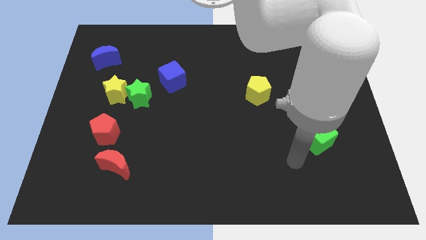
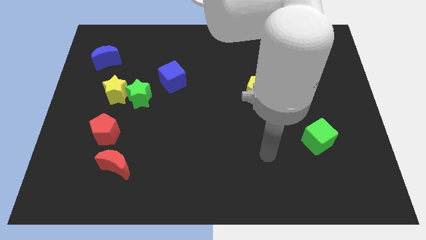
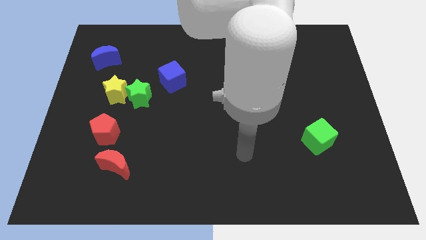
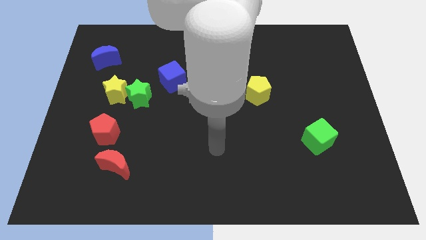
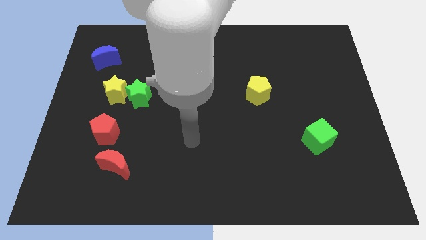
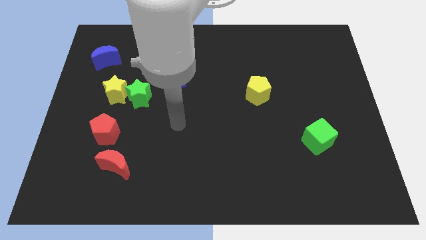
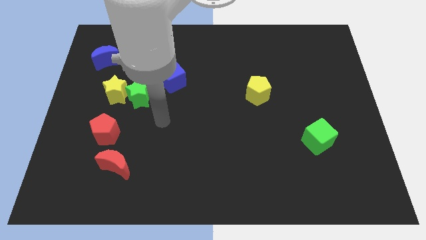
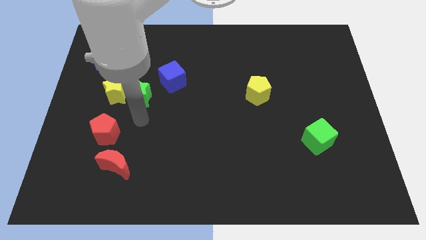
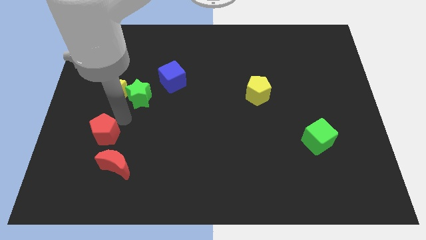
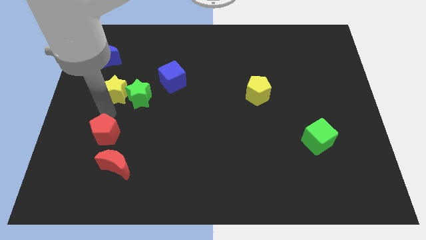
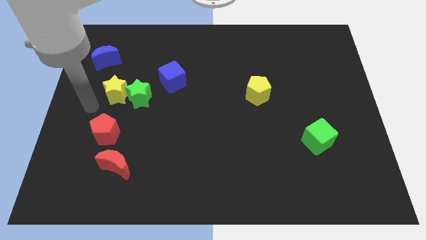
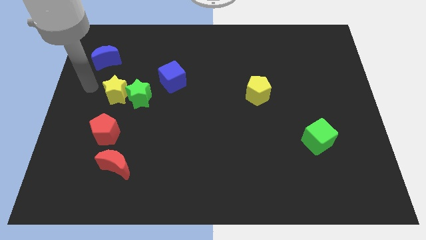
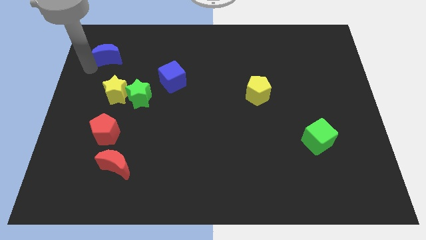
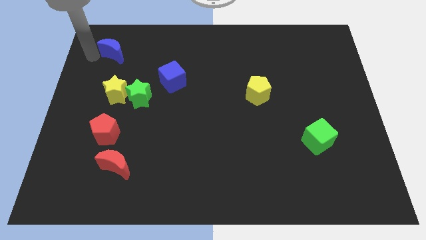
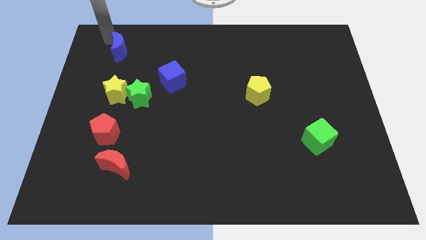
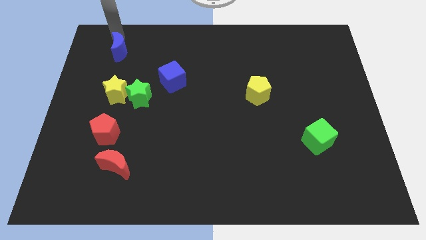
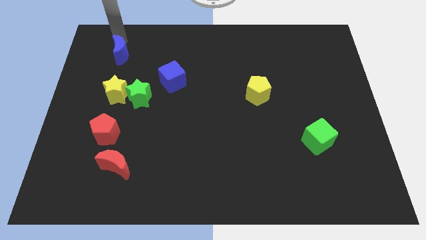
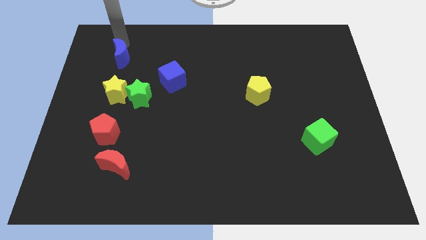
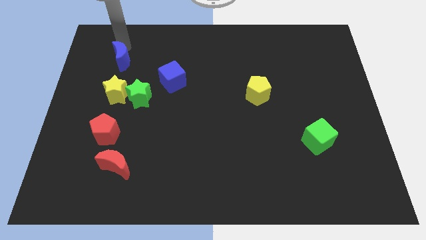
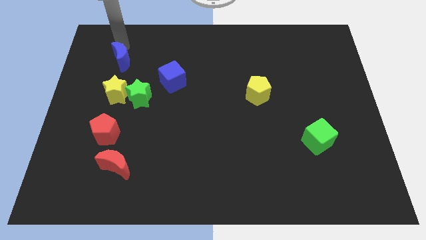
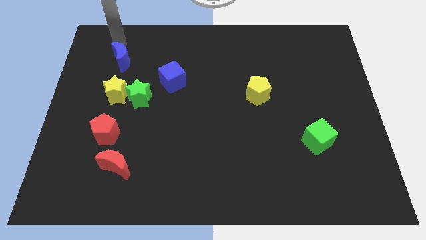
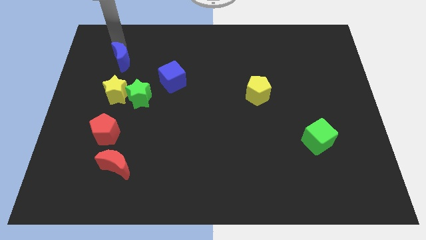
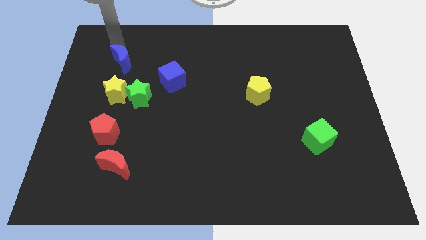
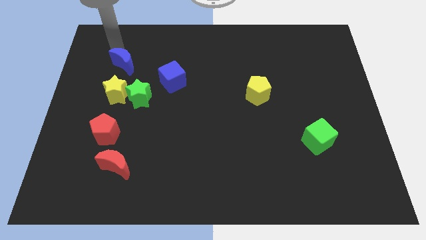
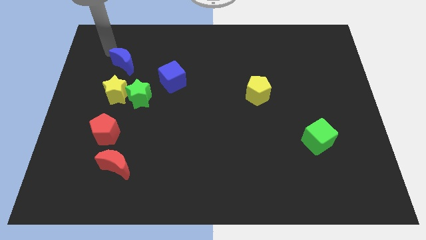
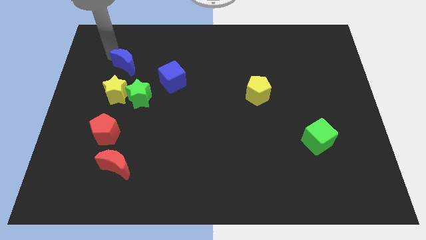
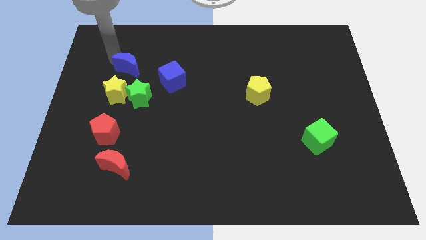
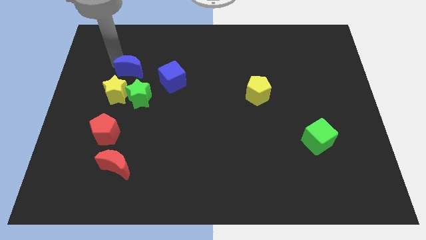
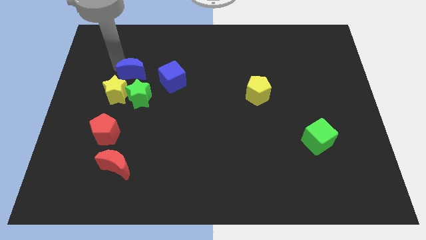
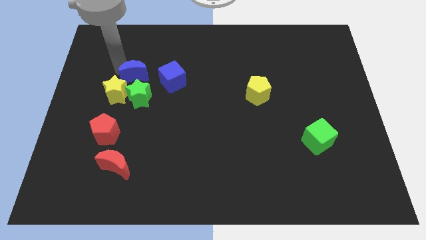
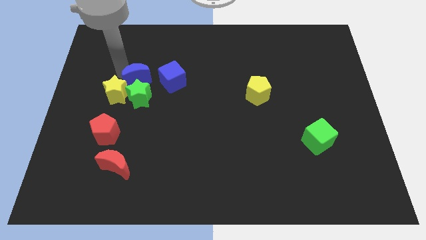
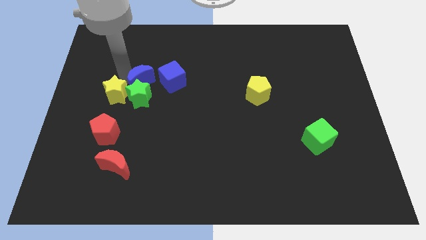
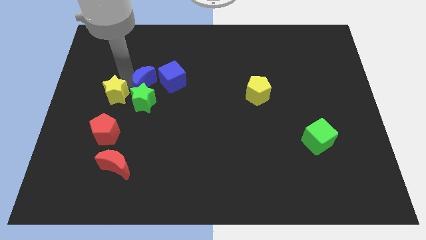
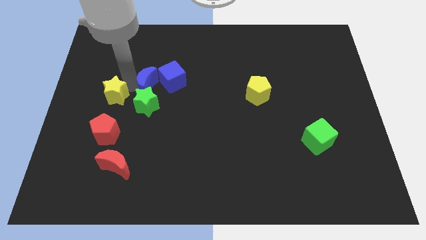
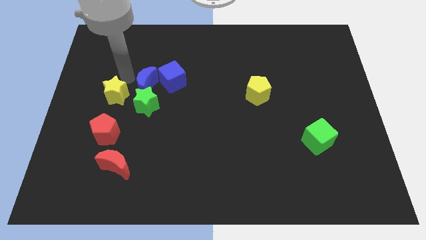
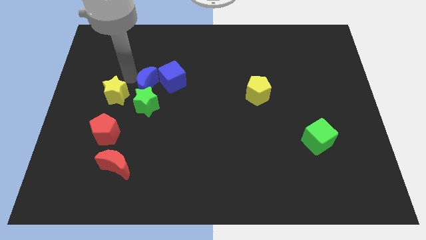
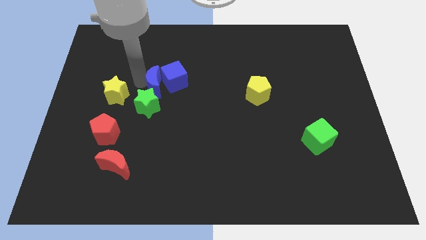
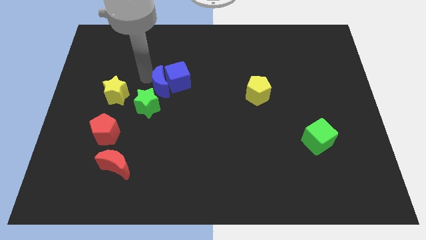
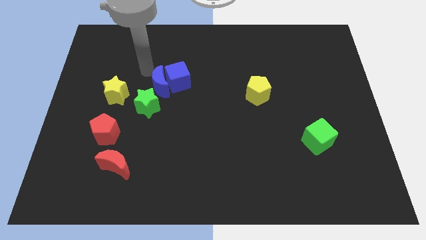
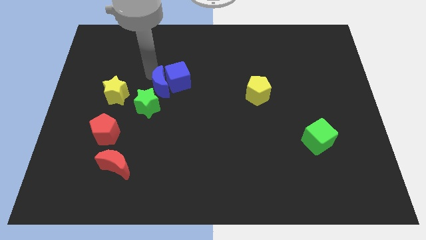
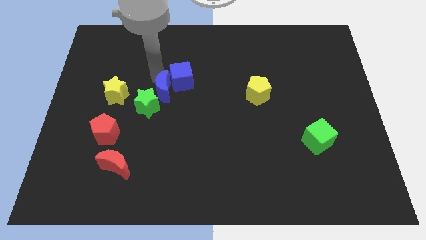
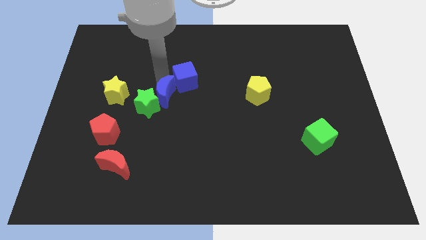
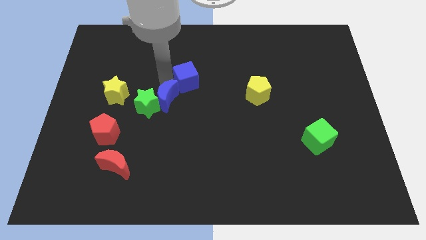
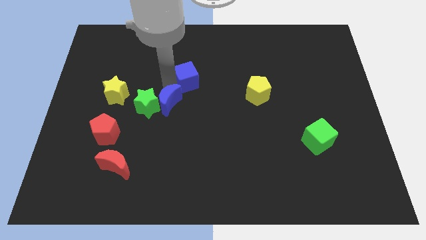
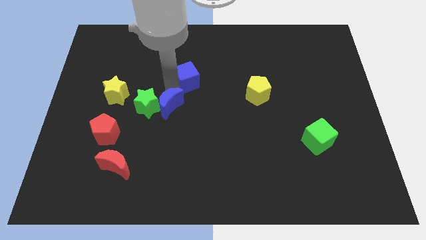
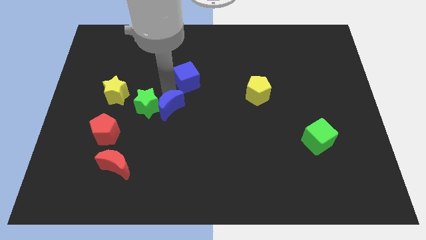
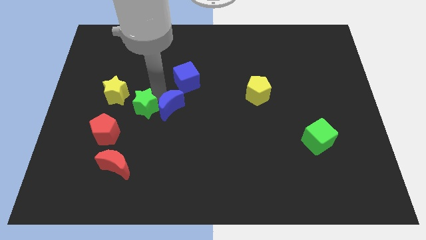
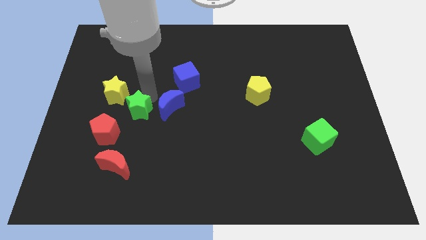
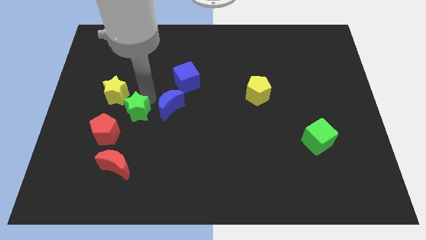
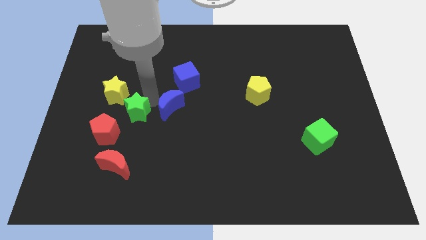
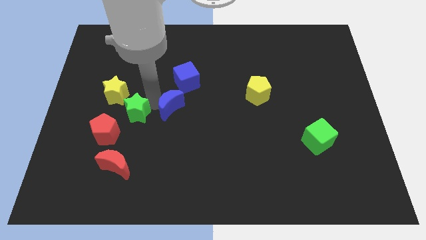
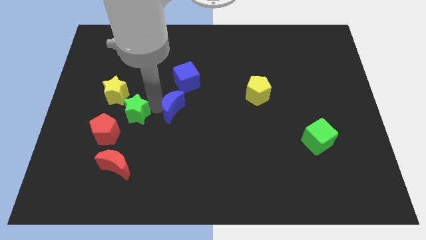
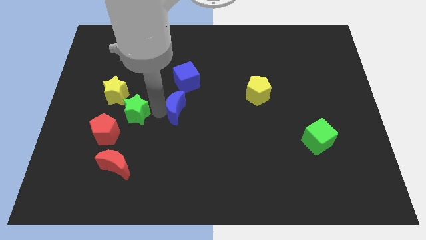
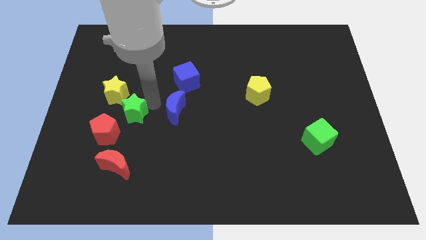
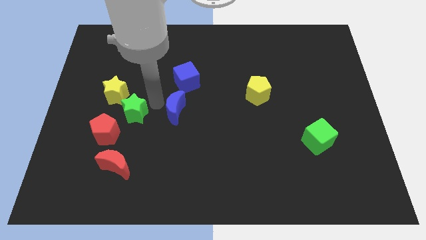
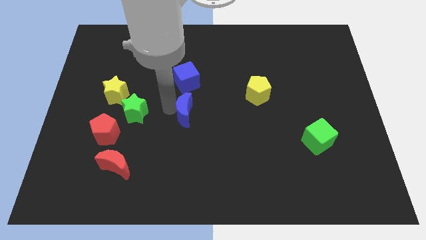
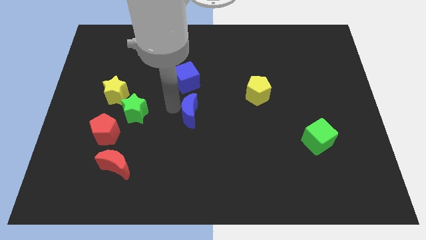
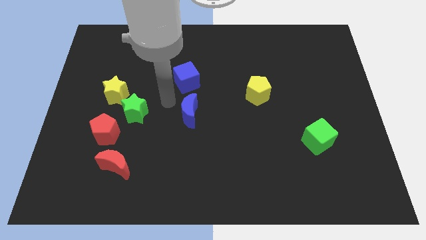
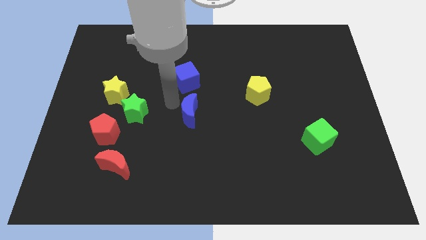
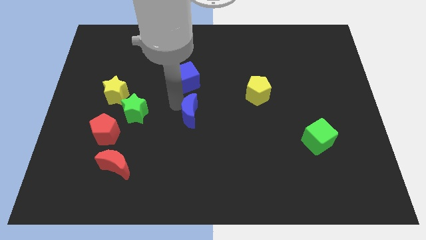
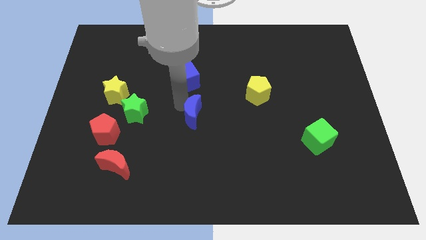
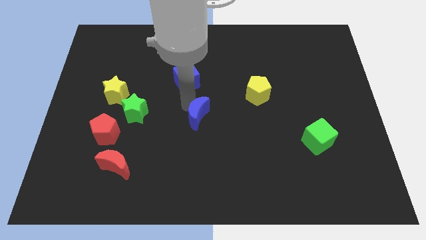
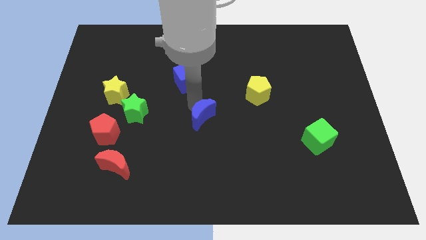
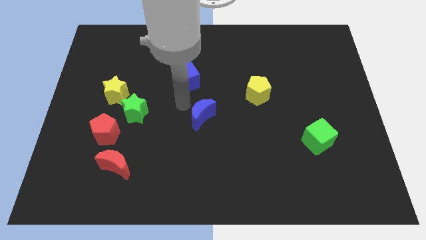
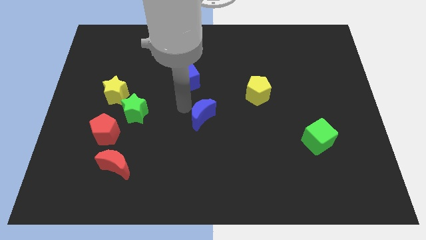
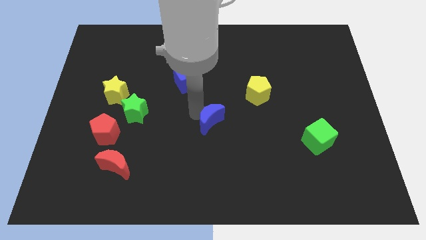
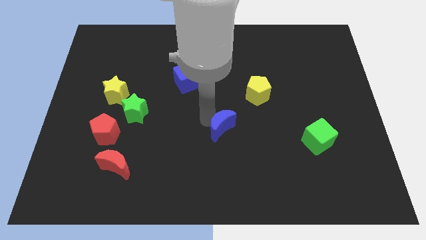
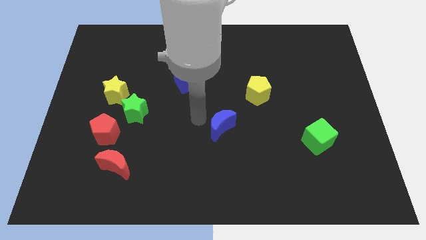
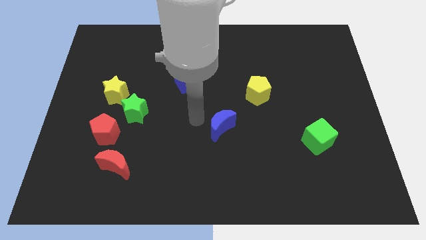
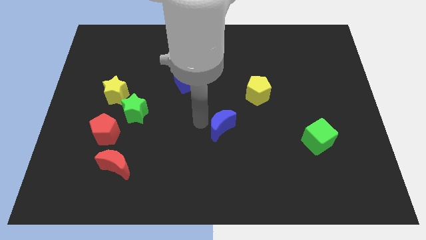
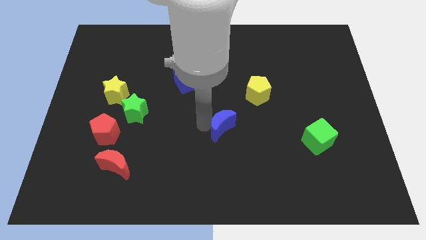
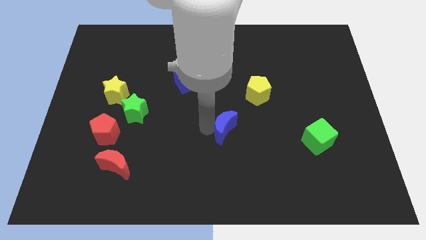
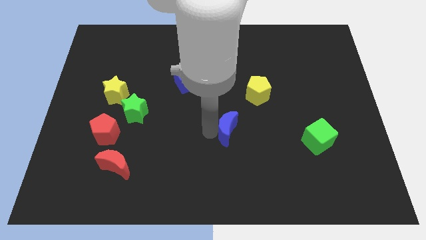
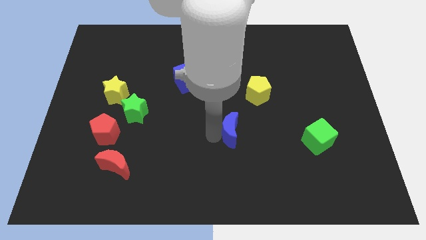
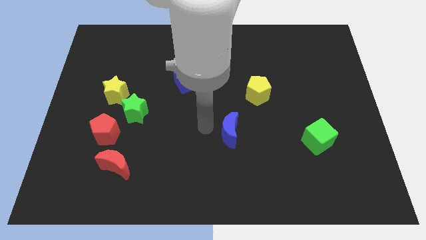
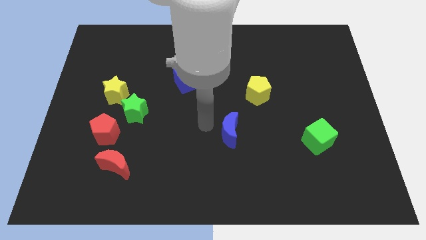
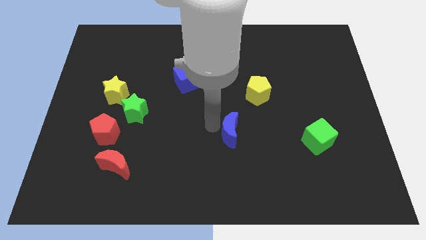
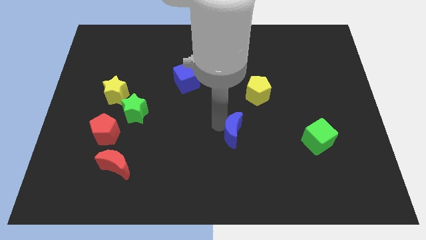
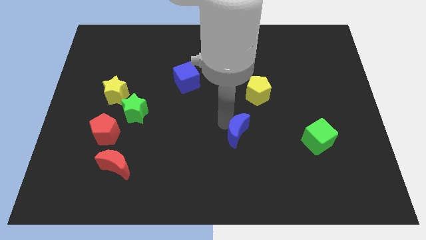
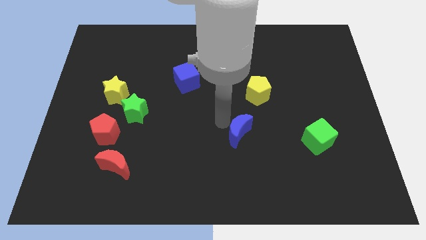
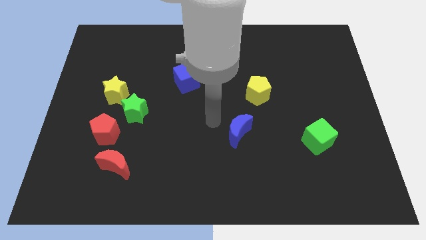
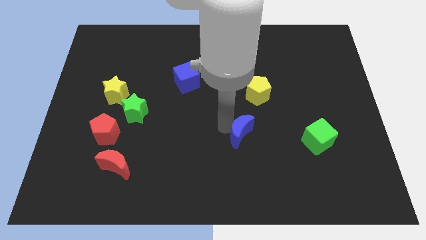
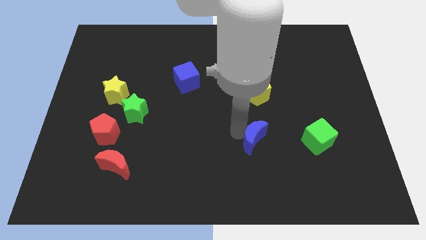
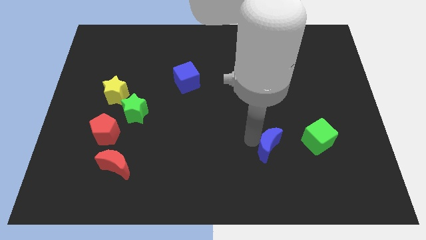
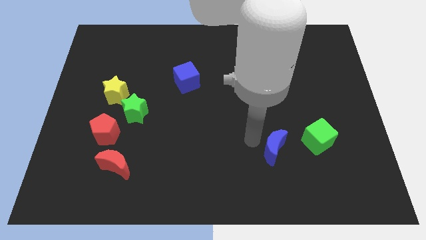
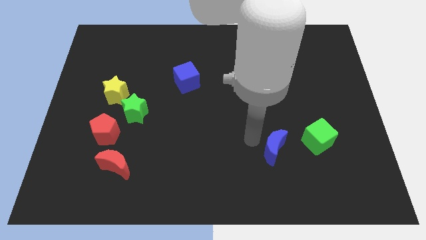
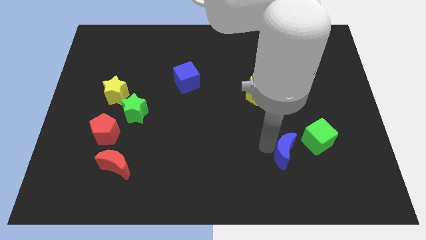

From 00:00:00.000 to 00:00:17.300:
put the blue moon to the bottom left of the green cube
